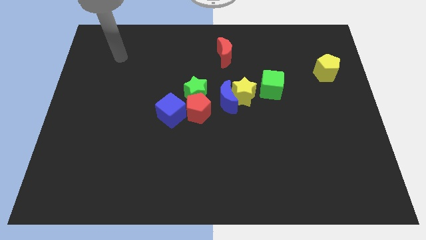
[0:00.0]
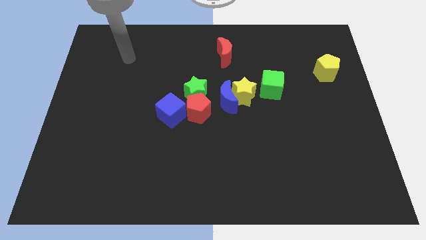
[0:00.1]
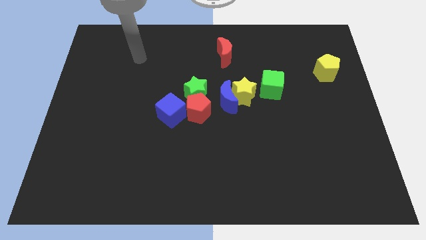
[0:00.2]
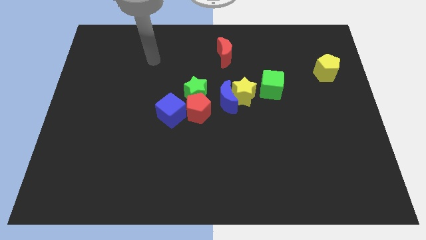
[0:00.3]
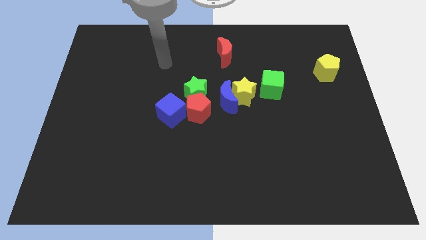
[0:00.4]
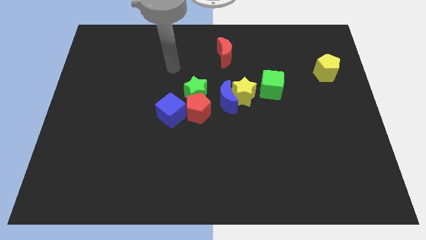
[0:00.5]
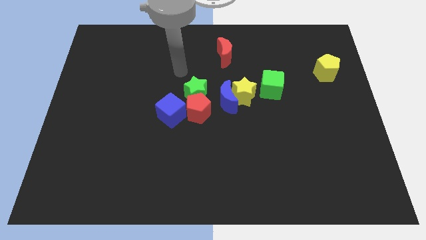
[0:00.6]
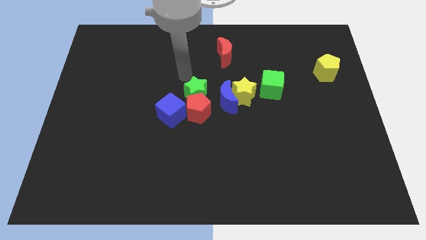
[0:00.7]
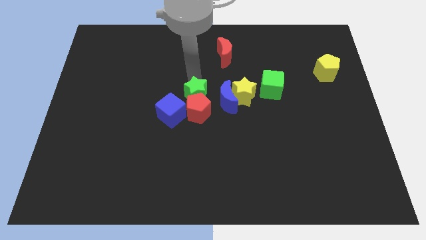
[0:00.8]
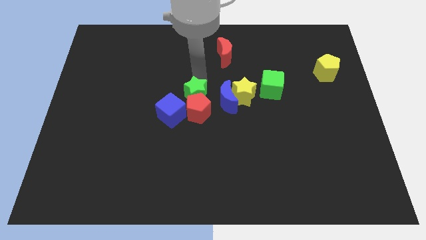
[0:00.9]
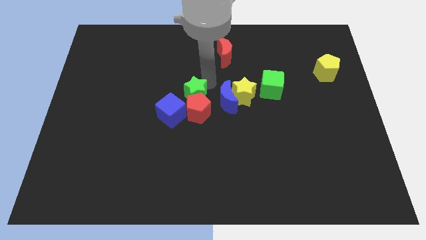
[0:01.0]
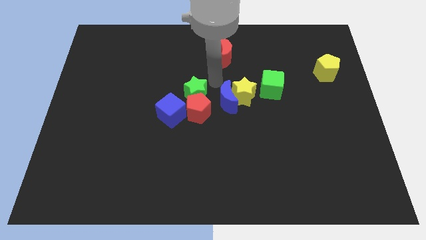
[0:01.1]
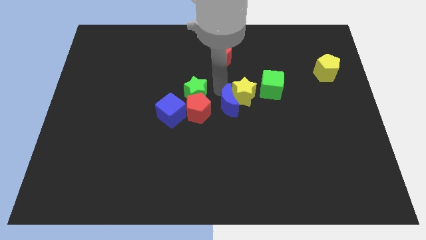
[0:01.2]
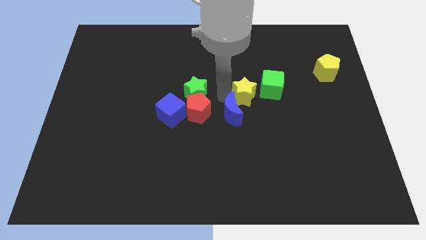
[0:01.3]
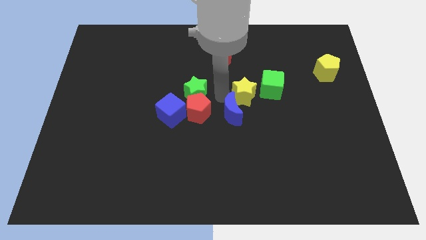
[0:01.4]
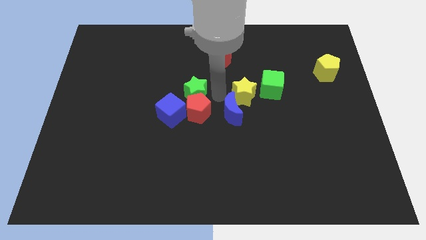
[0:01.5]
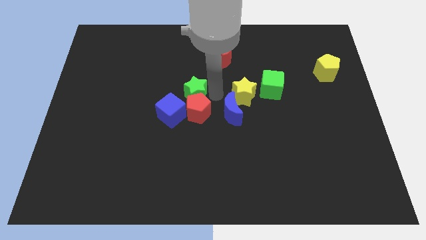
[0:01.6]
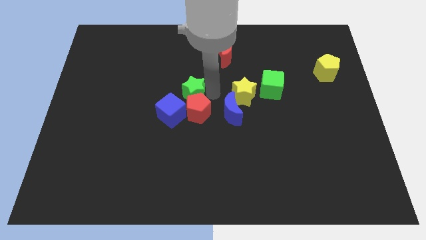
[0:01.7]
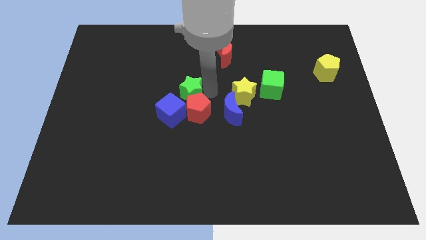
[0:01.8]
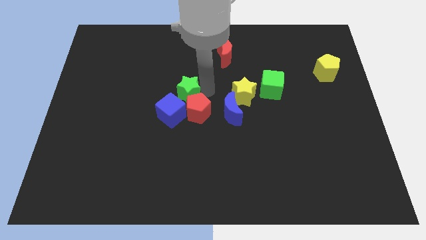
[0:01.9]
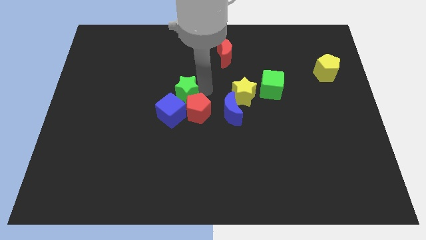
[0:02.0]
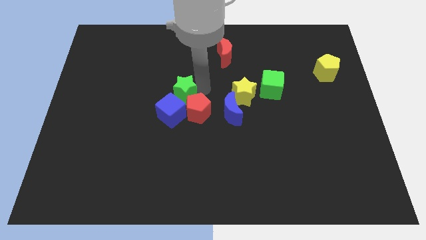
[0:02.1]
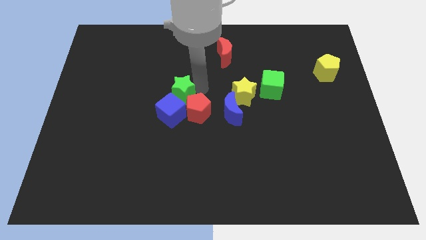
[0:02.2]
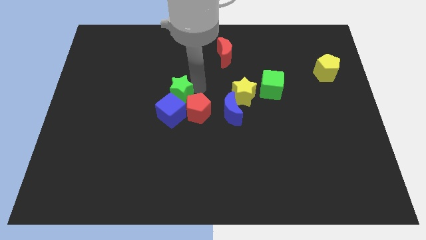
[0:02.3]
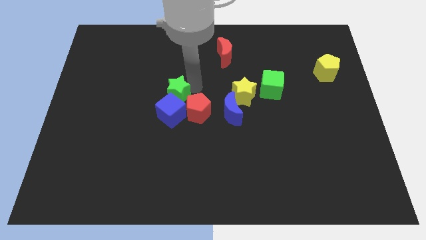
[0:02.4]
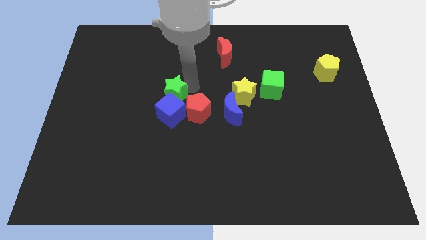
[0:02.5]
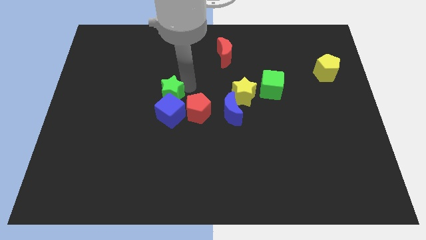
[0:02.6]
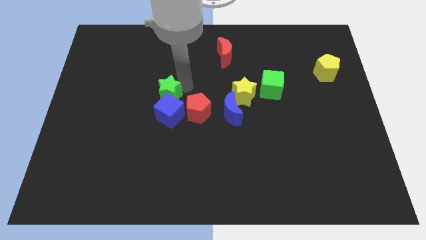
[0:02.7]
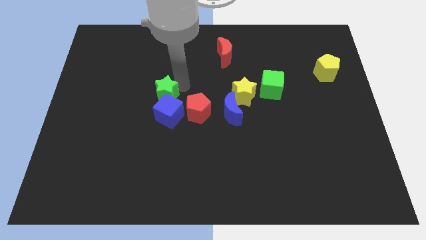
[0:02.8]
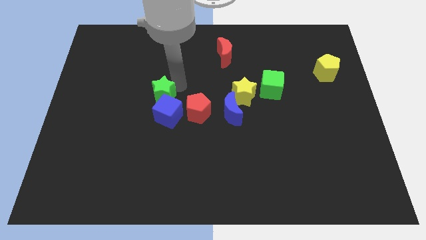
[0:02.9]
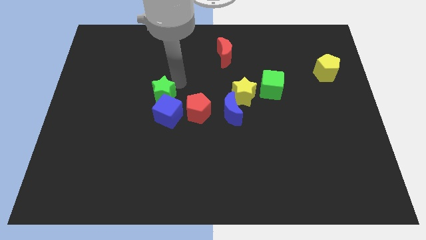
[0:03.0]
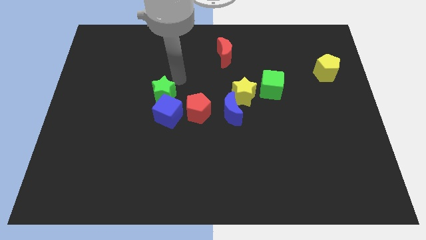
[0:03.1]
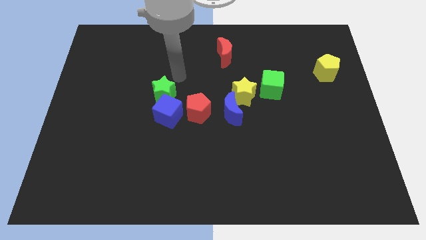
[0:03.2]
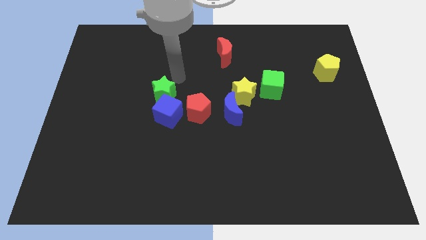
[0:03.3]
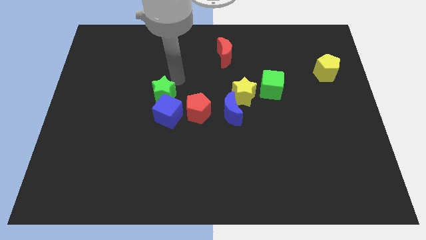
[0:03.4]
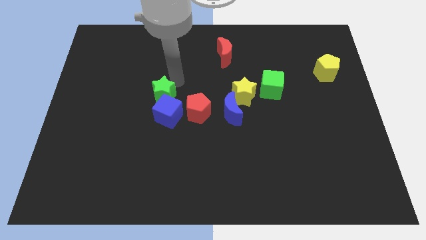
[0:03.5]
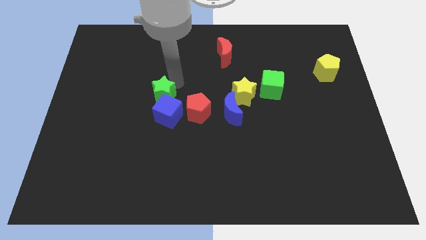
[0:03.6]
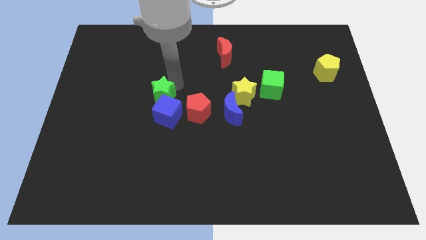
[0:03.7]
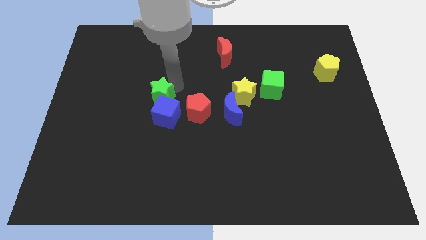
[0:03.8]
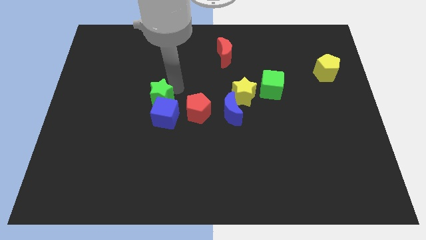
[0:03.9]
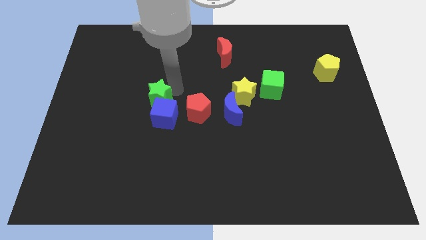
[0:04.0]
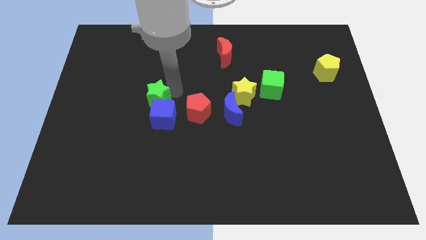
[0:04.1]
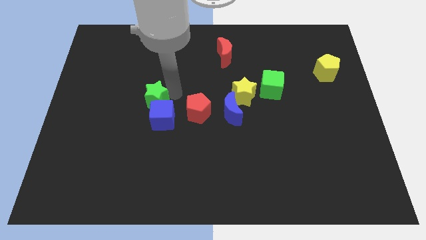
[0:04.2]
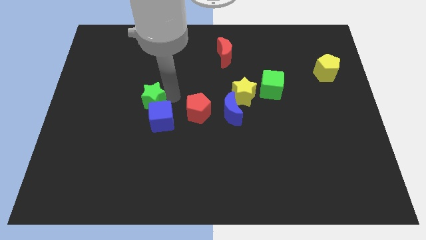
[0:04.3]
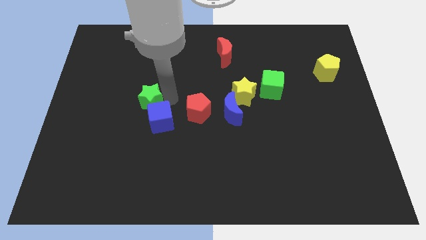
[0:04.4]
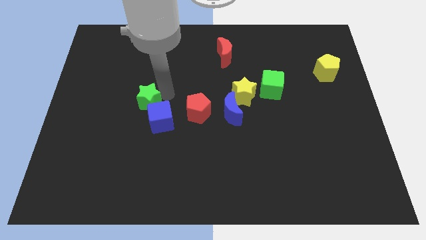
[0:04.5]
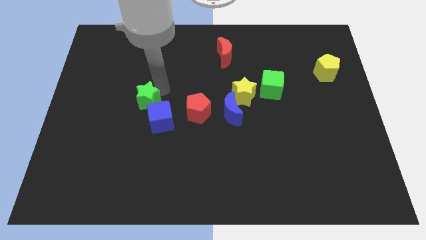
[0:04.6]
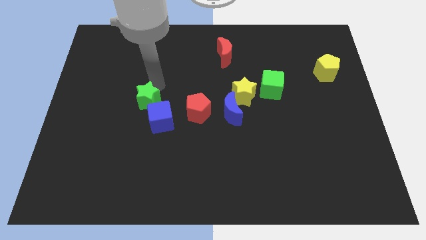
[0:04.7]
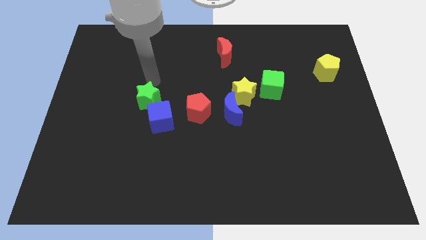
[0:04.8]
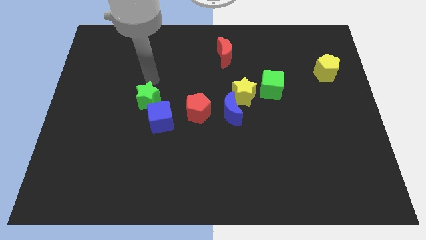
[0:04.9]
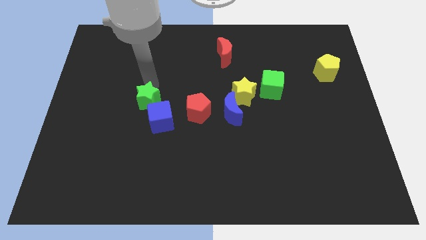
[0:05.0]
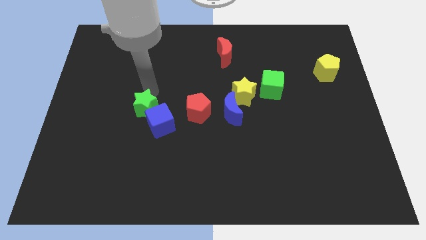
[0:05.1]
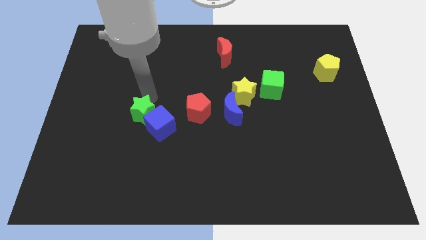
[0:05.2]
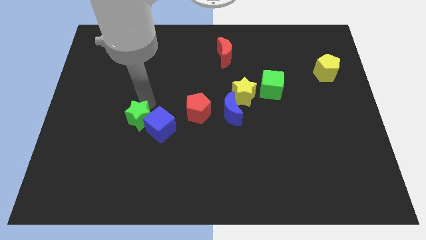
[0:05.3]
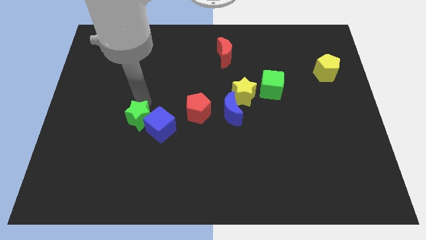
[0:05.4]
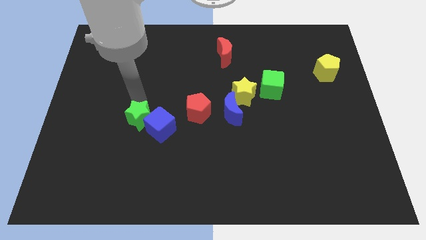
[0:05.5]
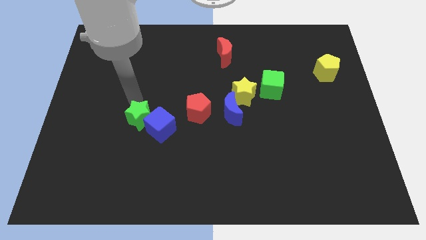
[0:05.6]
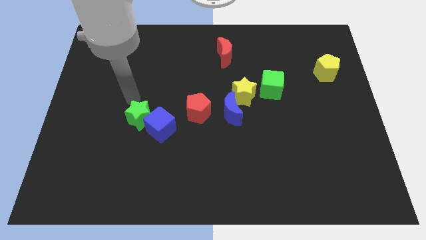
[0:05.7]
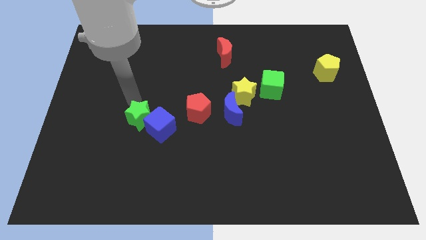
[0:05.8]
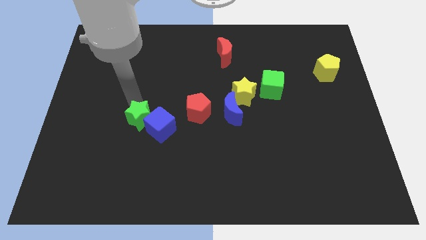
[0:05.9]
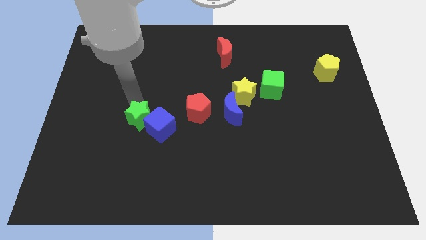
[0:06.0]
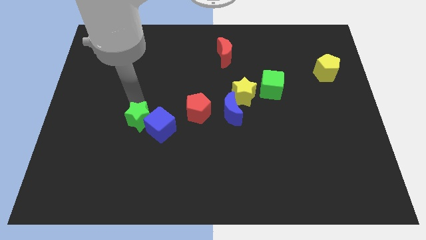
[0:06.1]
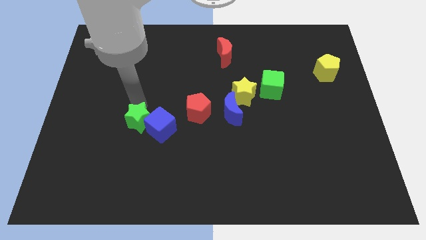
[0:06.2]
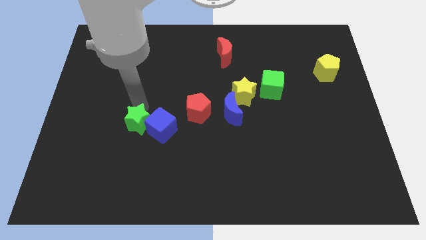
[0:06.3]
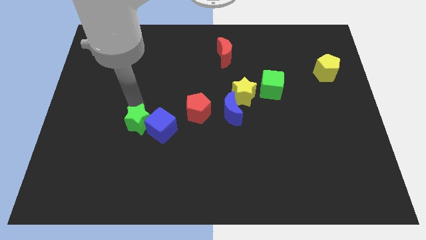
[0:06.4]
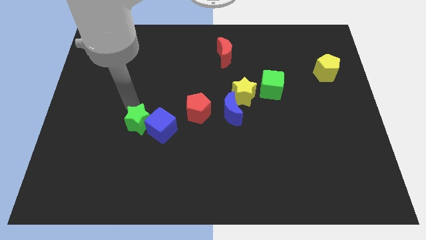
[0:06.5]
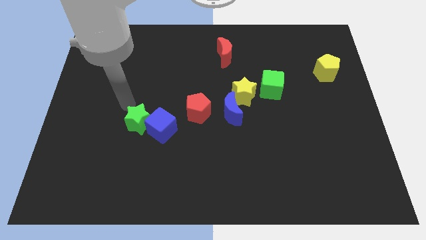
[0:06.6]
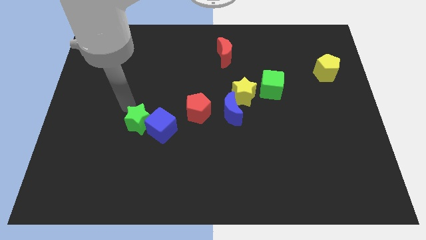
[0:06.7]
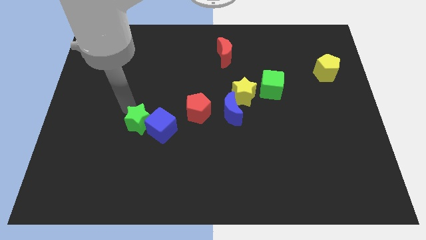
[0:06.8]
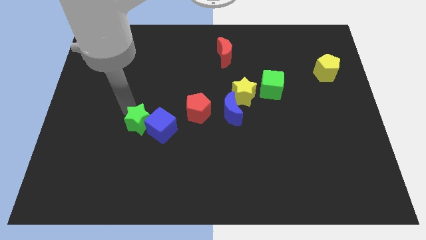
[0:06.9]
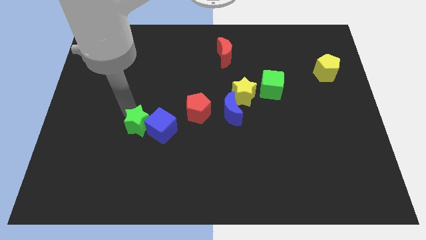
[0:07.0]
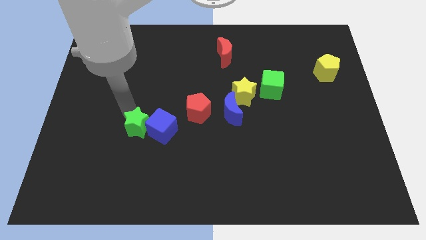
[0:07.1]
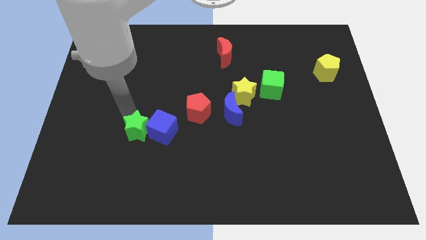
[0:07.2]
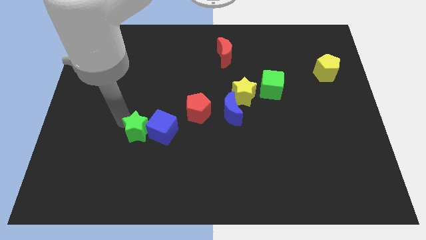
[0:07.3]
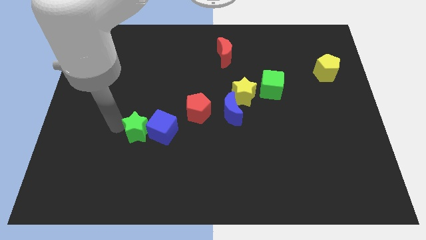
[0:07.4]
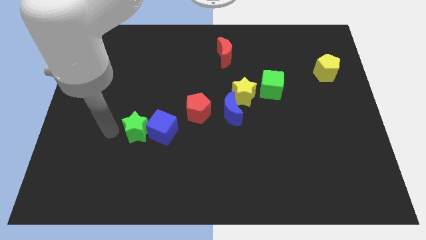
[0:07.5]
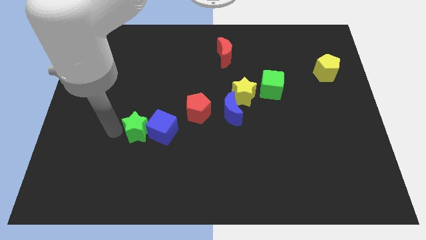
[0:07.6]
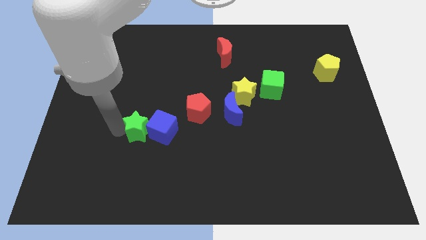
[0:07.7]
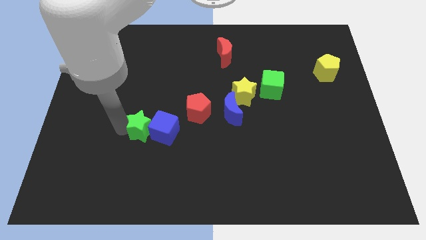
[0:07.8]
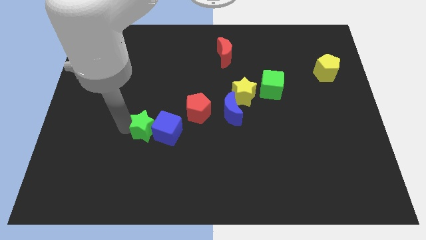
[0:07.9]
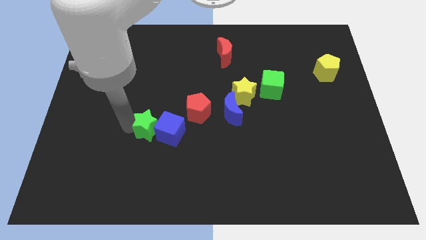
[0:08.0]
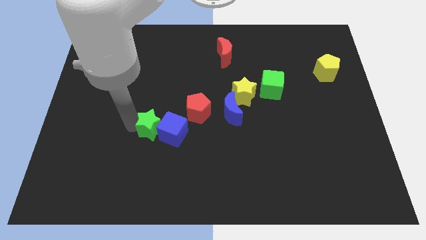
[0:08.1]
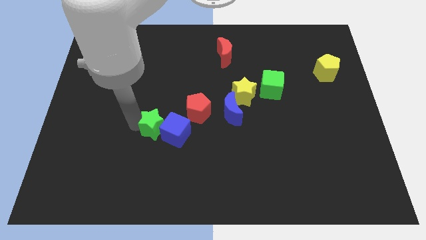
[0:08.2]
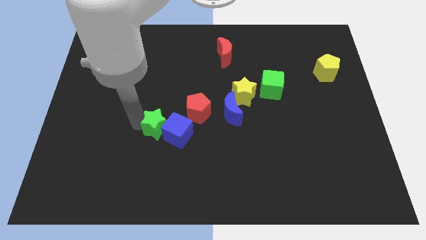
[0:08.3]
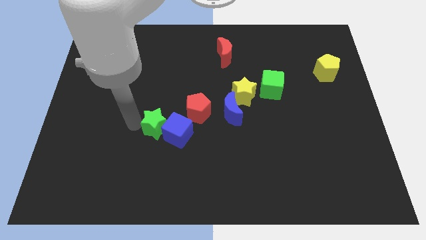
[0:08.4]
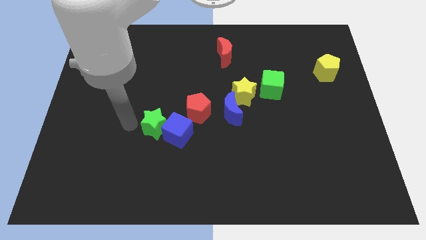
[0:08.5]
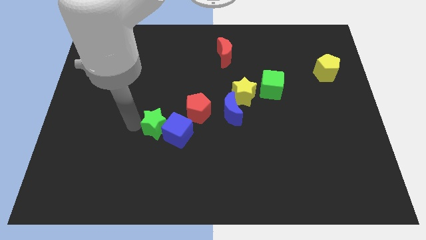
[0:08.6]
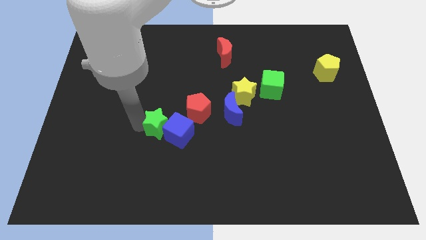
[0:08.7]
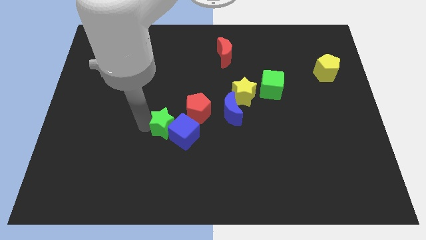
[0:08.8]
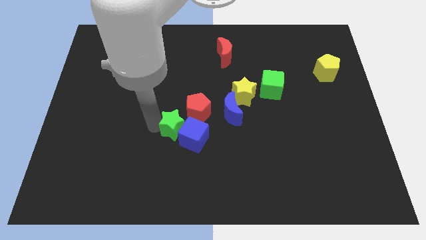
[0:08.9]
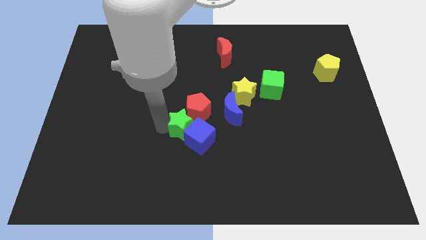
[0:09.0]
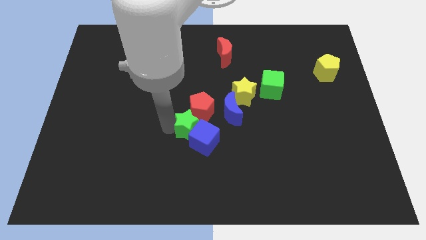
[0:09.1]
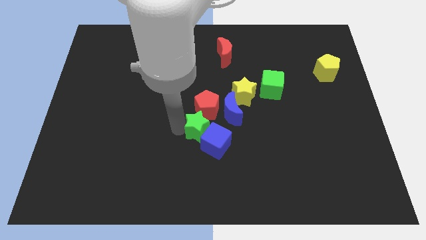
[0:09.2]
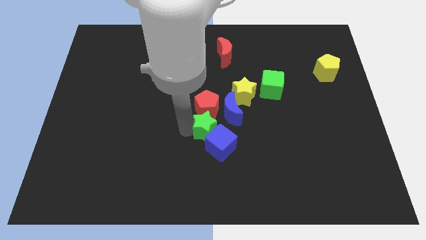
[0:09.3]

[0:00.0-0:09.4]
push the green star down and right diagonally a little
